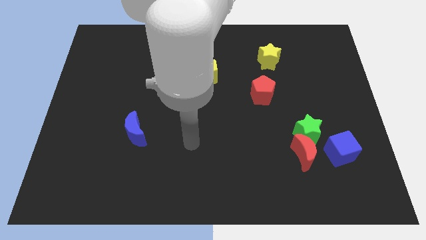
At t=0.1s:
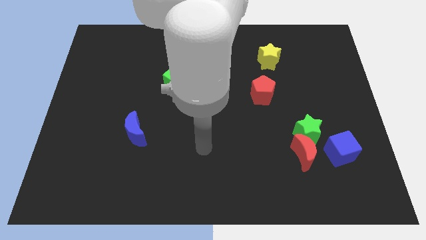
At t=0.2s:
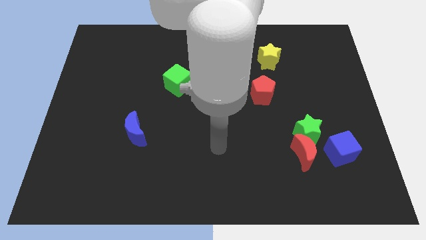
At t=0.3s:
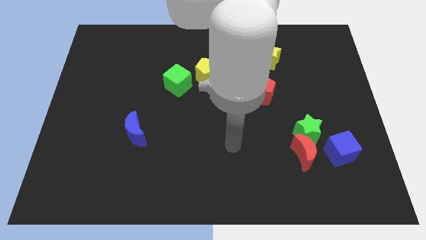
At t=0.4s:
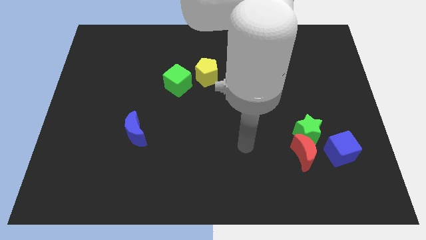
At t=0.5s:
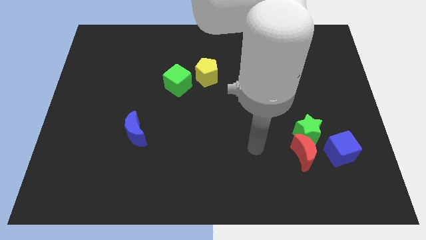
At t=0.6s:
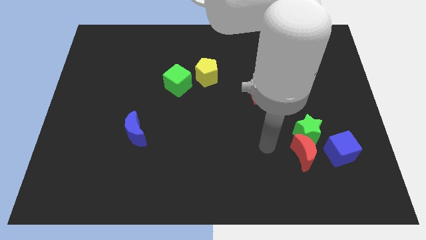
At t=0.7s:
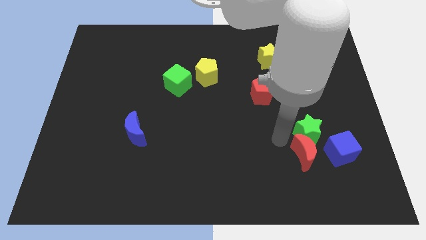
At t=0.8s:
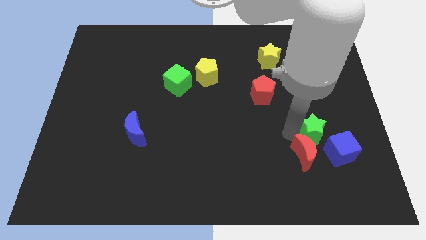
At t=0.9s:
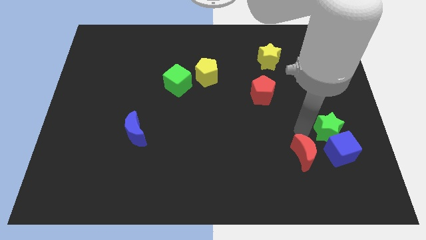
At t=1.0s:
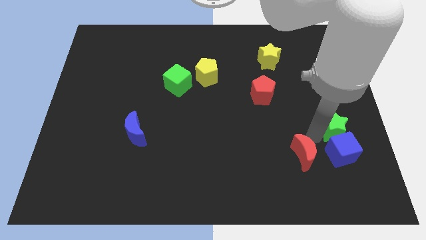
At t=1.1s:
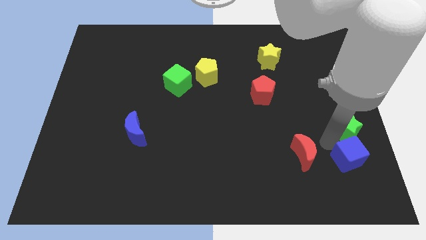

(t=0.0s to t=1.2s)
move the red moon away from the green star and blue cube

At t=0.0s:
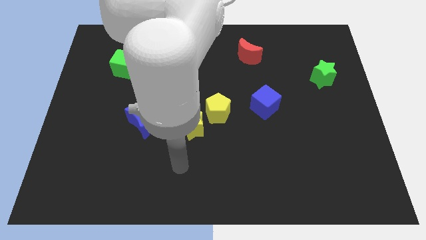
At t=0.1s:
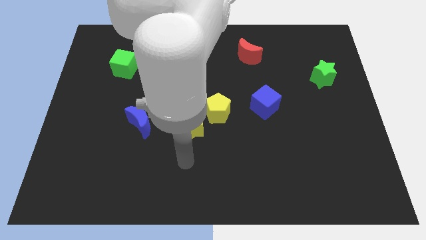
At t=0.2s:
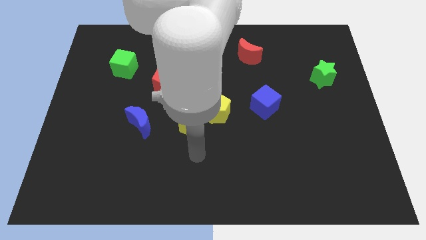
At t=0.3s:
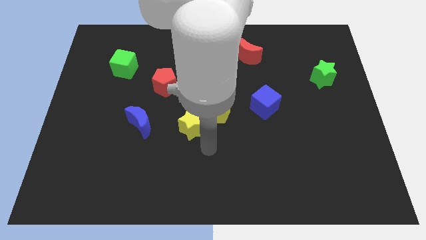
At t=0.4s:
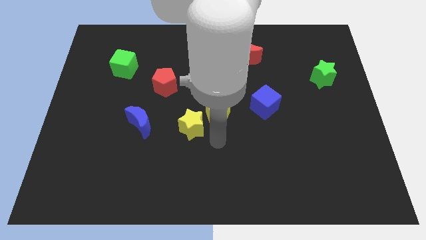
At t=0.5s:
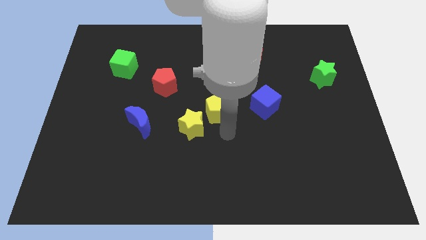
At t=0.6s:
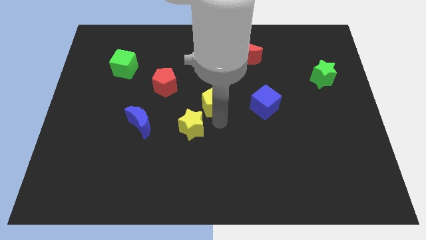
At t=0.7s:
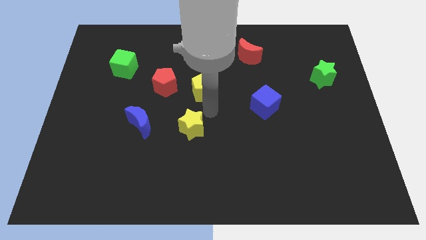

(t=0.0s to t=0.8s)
move the yellow star away from the yellow pentagon

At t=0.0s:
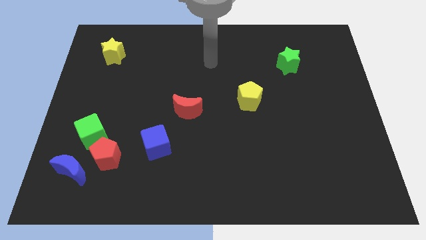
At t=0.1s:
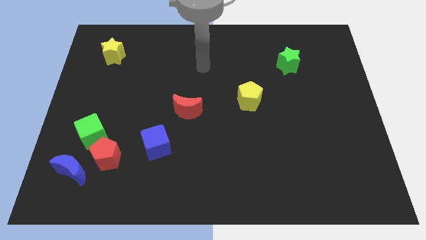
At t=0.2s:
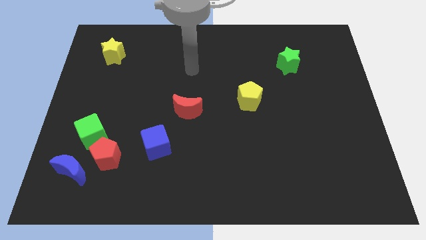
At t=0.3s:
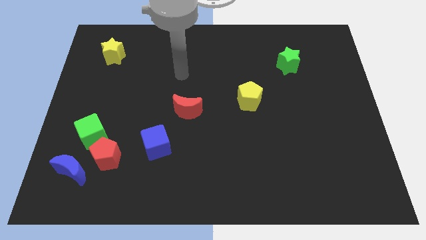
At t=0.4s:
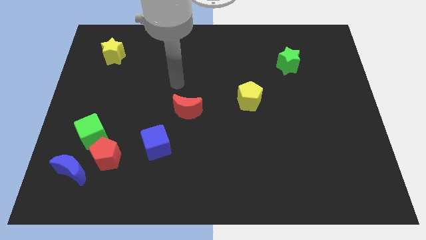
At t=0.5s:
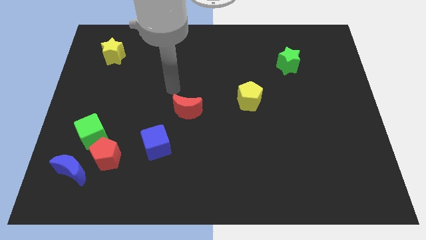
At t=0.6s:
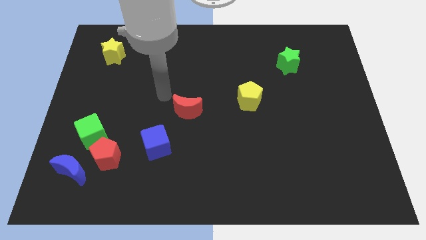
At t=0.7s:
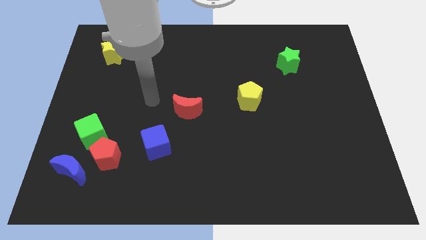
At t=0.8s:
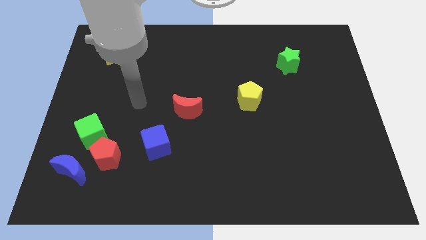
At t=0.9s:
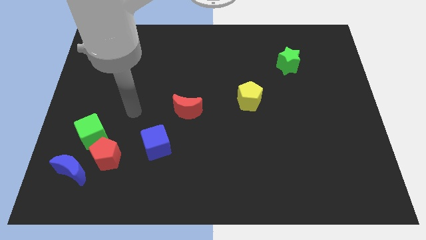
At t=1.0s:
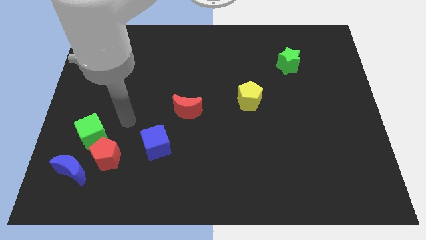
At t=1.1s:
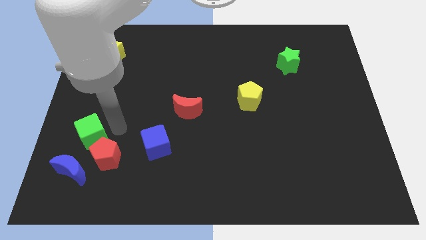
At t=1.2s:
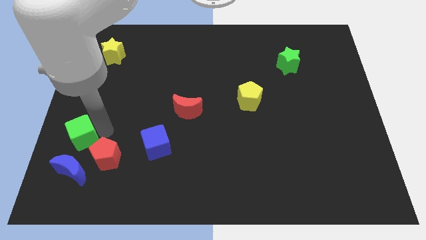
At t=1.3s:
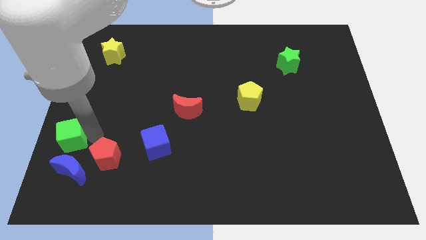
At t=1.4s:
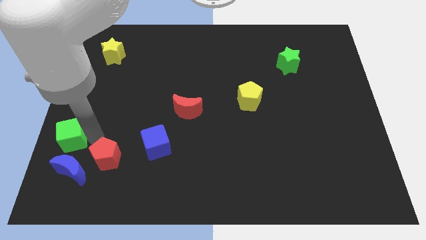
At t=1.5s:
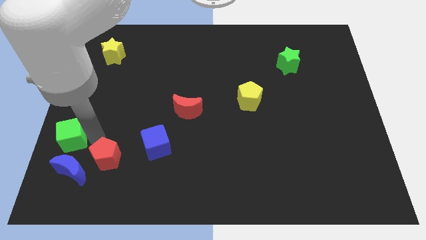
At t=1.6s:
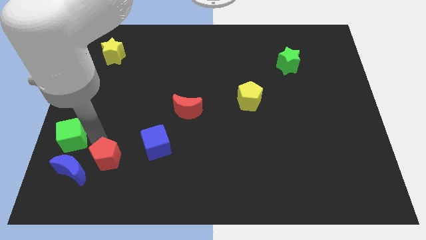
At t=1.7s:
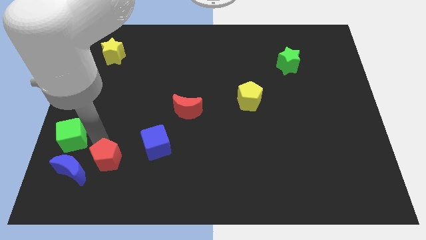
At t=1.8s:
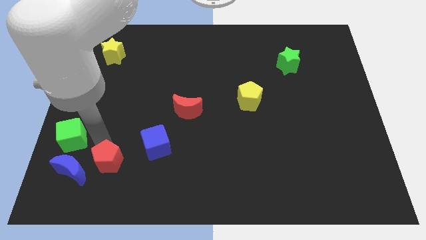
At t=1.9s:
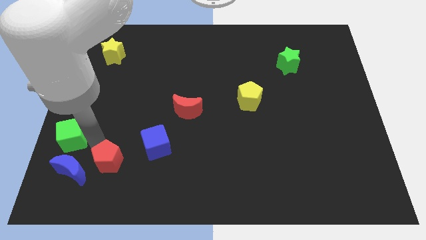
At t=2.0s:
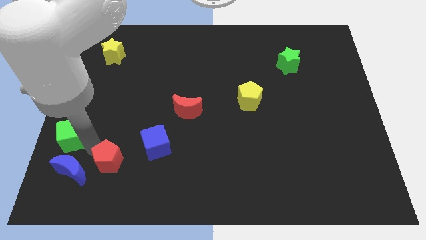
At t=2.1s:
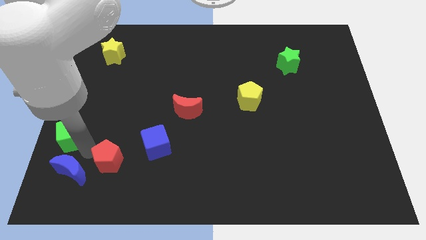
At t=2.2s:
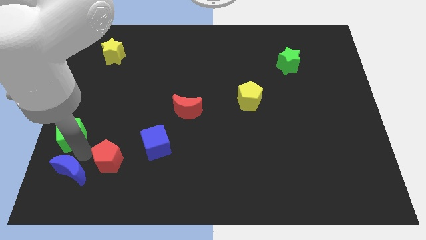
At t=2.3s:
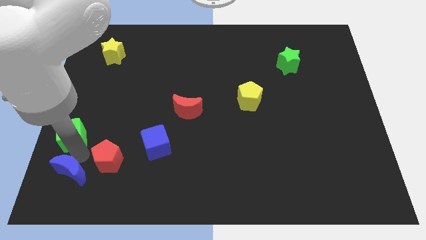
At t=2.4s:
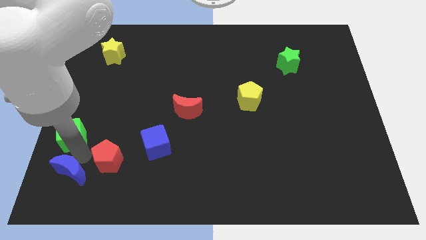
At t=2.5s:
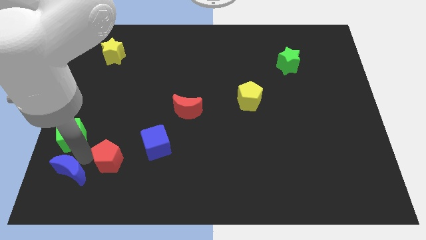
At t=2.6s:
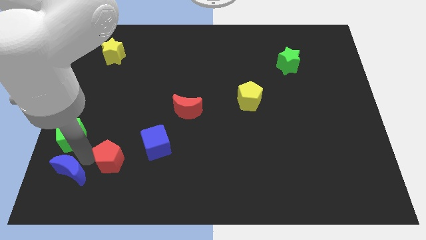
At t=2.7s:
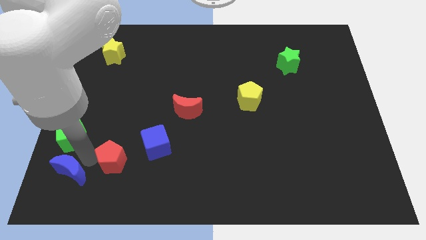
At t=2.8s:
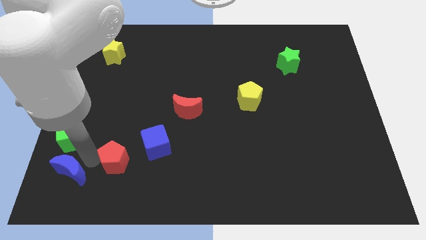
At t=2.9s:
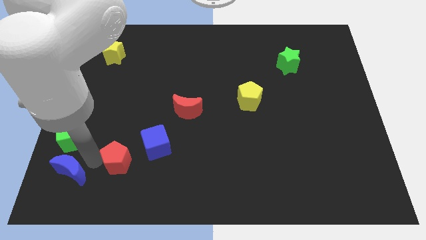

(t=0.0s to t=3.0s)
separate the red pentagon from the green cube and blue moon

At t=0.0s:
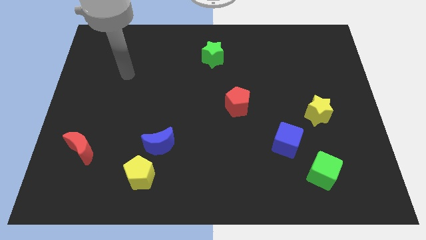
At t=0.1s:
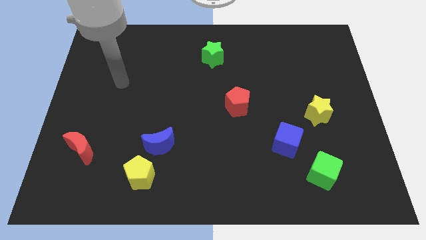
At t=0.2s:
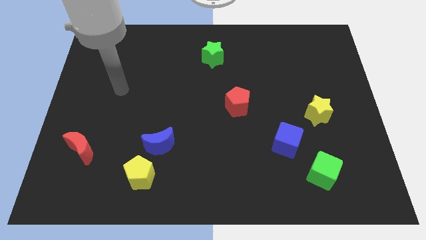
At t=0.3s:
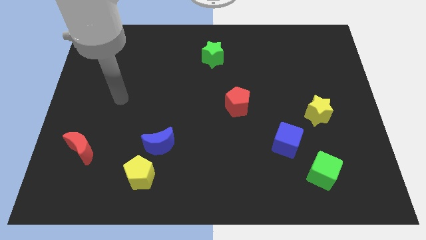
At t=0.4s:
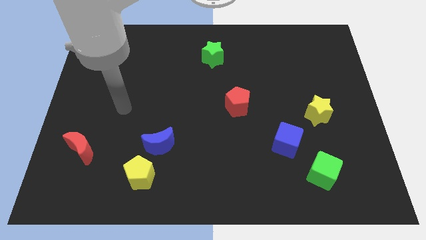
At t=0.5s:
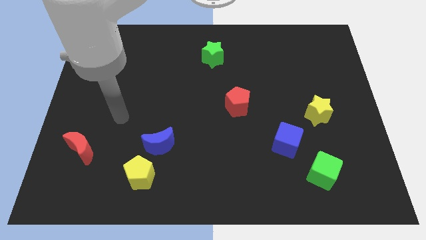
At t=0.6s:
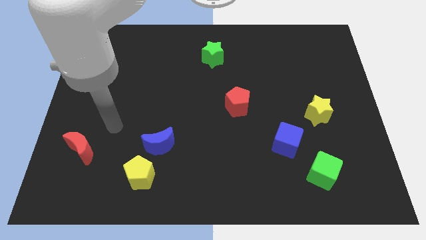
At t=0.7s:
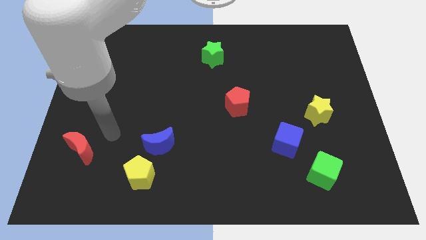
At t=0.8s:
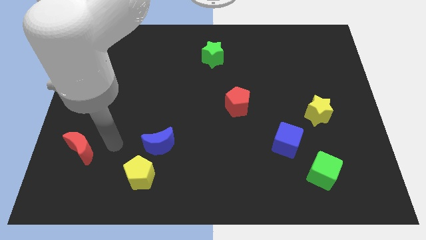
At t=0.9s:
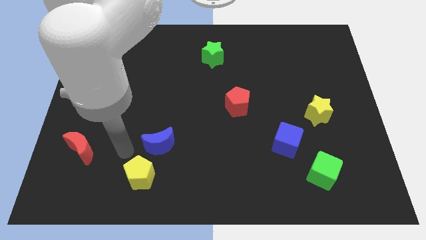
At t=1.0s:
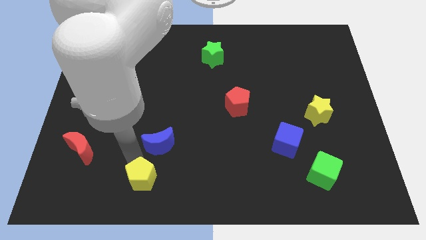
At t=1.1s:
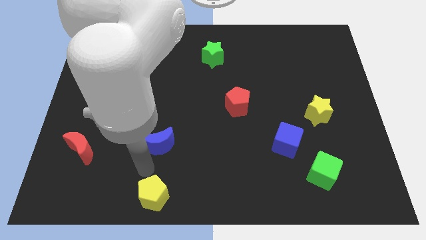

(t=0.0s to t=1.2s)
move the blue moon away from the yellow pentagon

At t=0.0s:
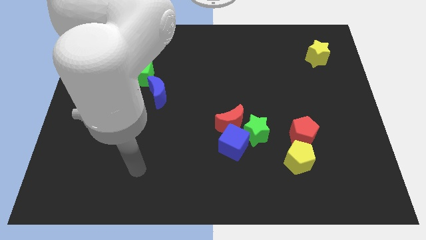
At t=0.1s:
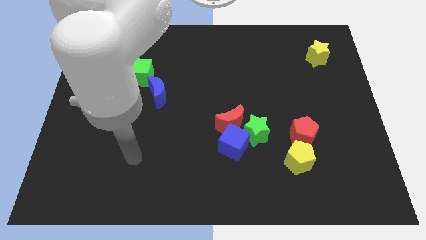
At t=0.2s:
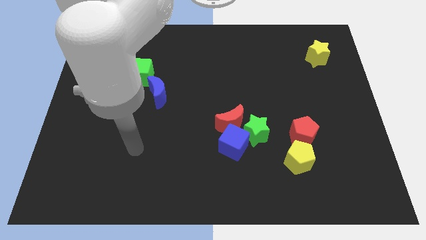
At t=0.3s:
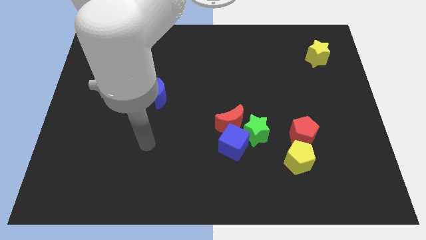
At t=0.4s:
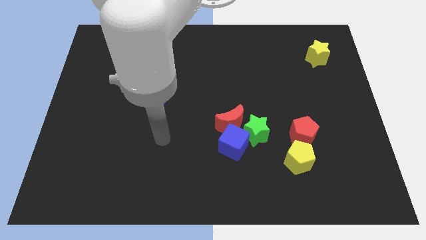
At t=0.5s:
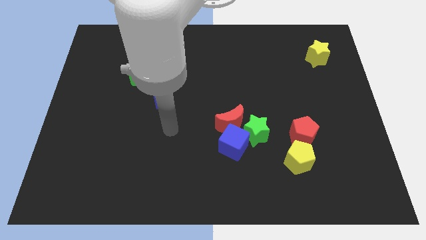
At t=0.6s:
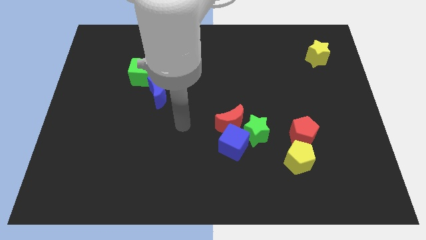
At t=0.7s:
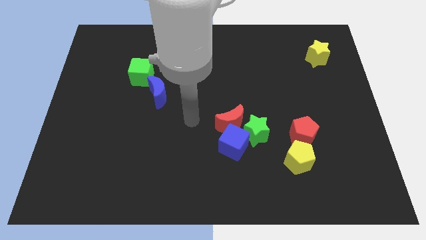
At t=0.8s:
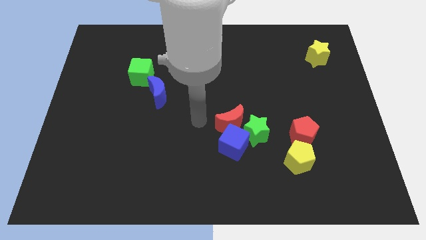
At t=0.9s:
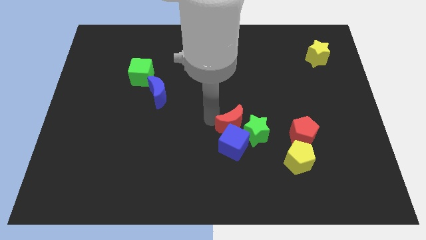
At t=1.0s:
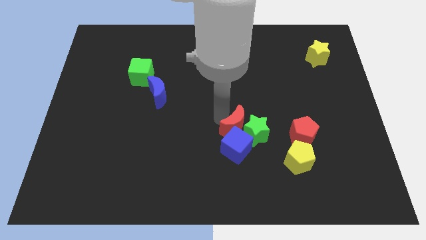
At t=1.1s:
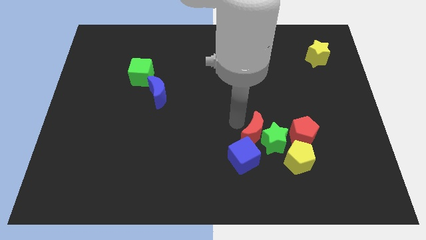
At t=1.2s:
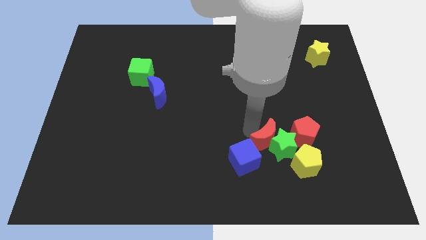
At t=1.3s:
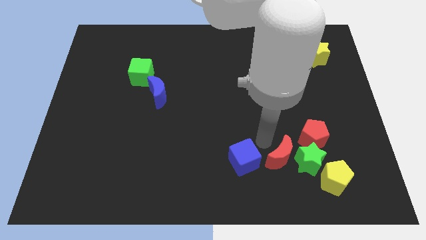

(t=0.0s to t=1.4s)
move the blue cube away from the red moon and green star

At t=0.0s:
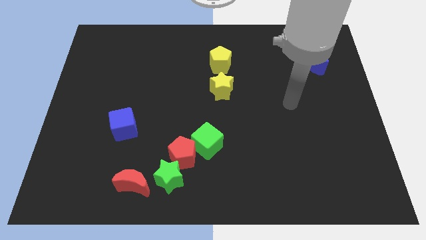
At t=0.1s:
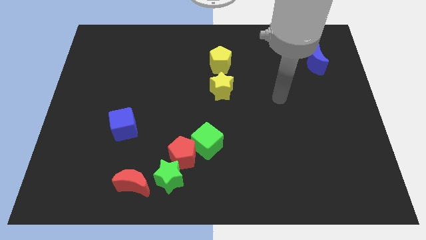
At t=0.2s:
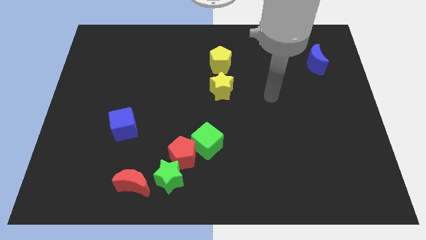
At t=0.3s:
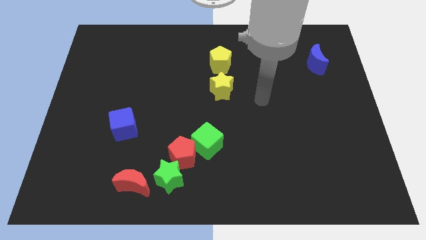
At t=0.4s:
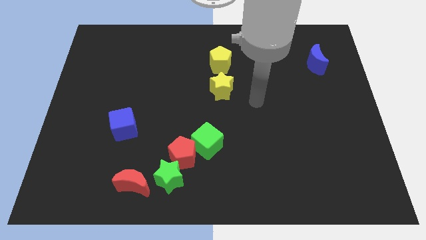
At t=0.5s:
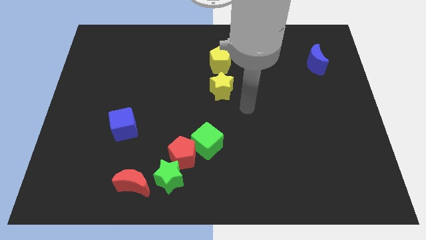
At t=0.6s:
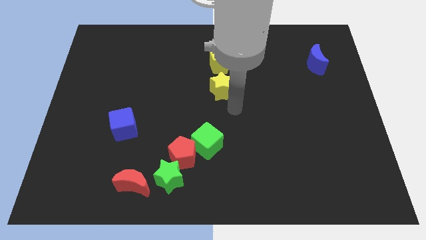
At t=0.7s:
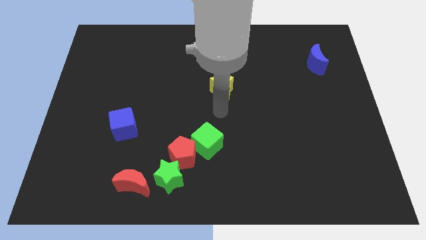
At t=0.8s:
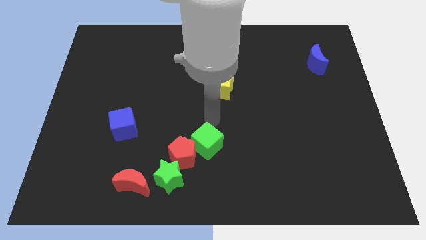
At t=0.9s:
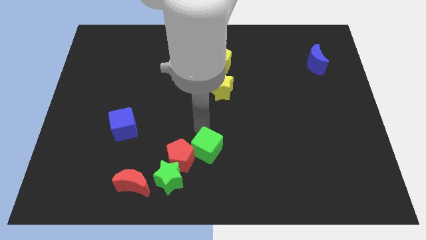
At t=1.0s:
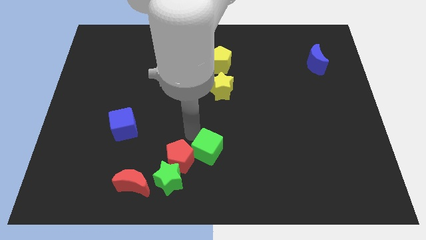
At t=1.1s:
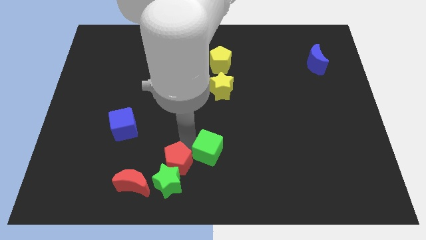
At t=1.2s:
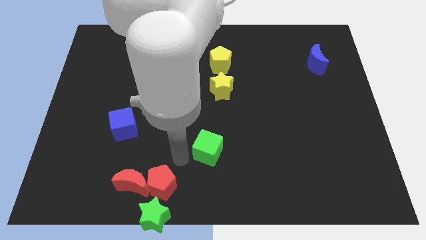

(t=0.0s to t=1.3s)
pull the green cube apart from the red pentagon

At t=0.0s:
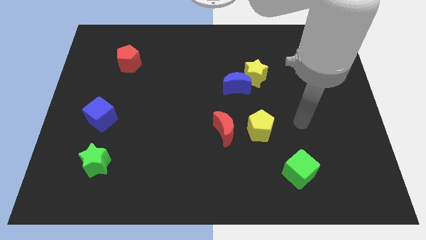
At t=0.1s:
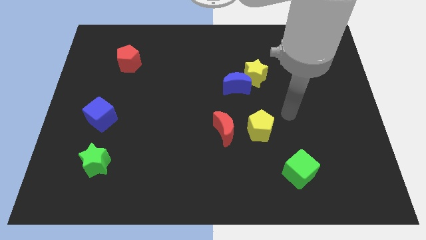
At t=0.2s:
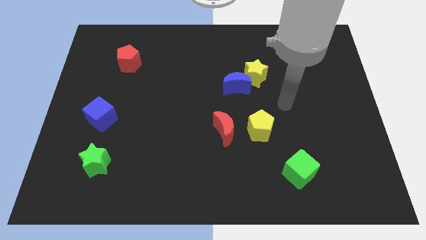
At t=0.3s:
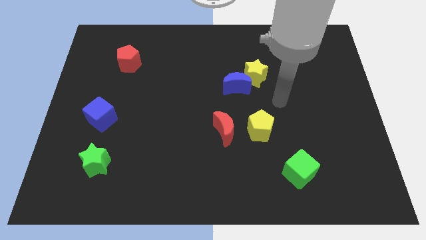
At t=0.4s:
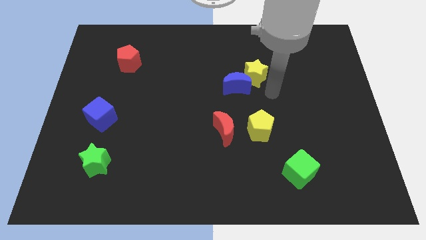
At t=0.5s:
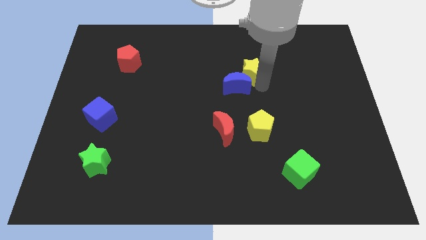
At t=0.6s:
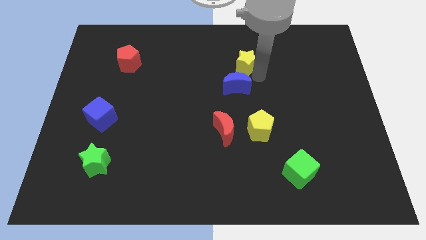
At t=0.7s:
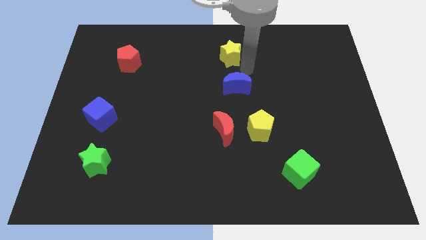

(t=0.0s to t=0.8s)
pull the blue moon apart from the yellow star
